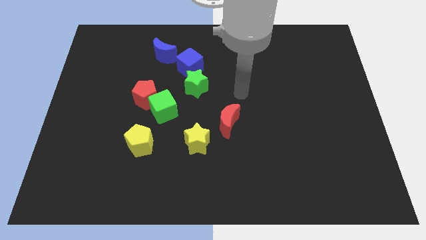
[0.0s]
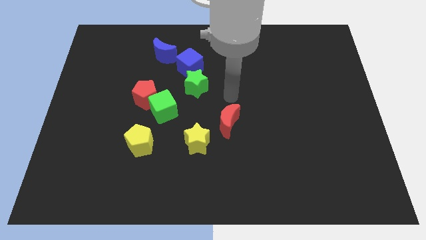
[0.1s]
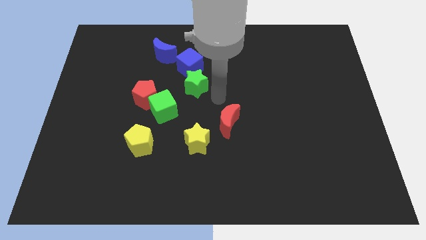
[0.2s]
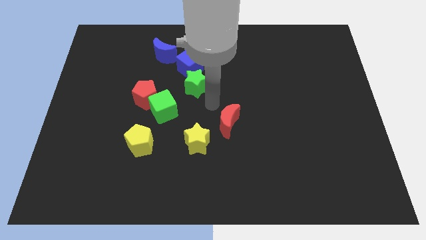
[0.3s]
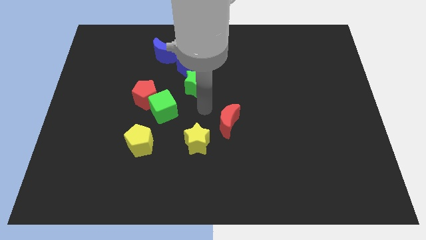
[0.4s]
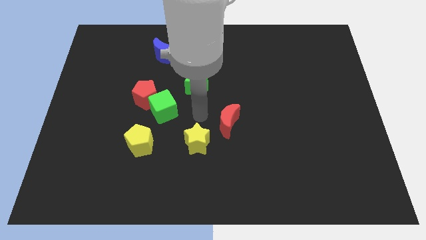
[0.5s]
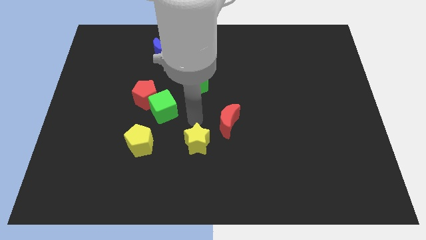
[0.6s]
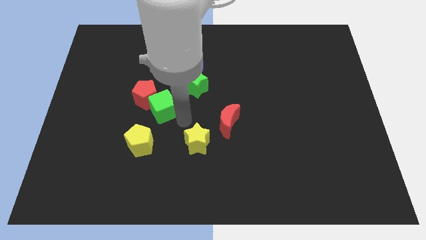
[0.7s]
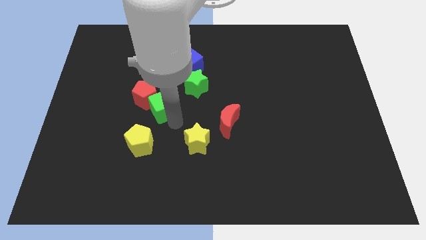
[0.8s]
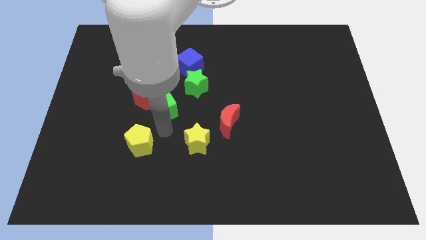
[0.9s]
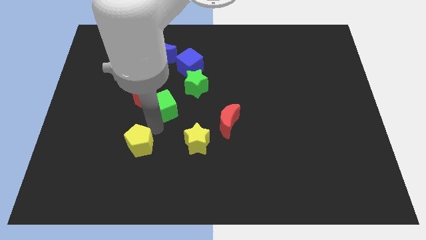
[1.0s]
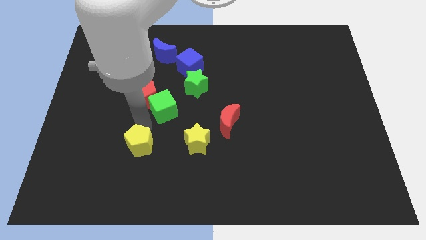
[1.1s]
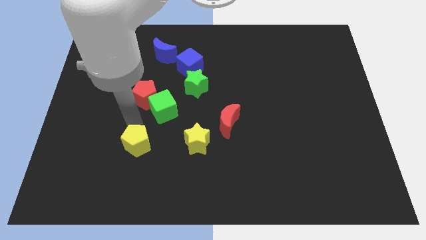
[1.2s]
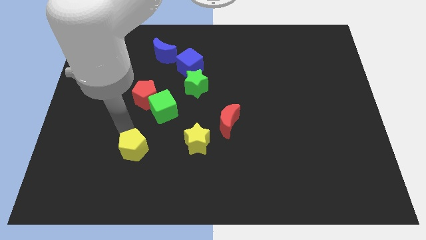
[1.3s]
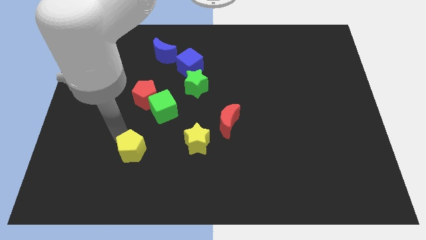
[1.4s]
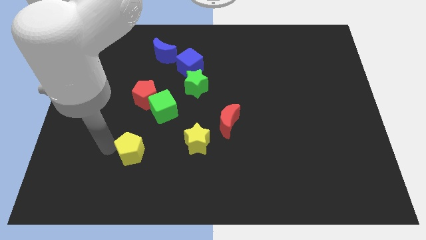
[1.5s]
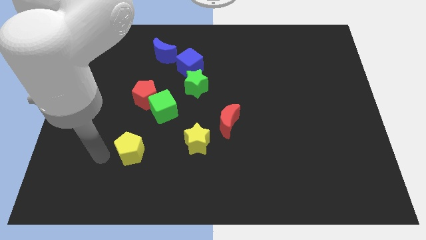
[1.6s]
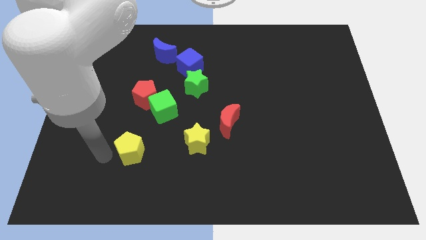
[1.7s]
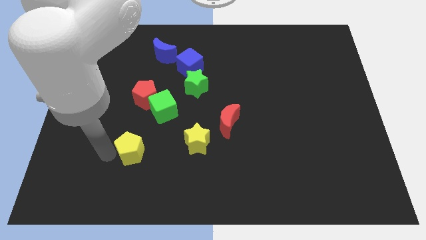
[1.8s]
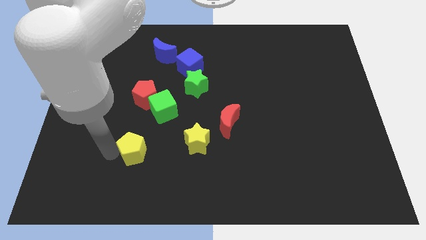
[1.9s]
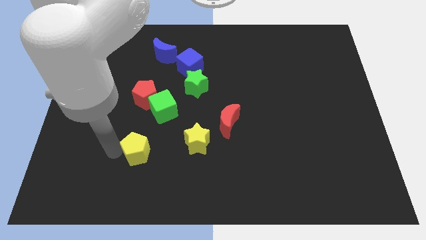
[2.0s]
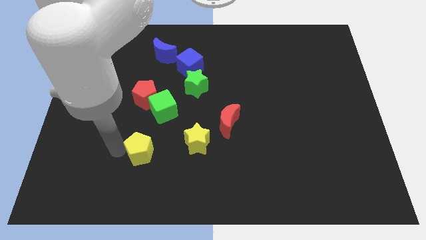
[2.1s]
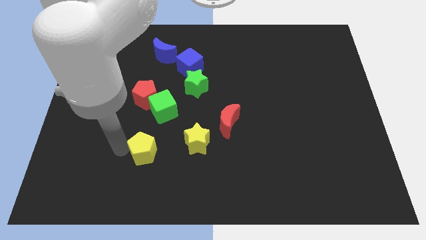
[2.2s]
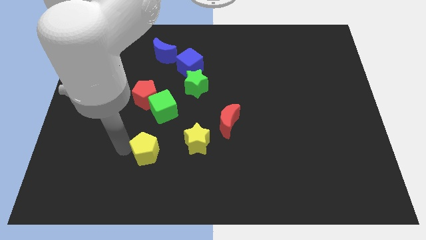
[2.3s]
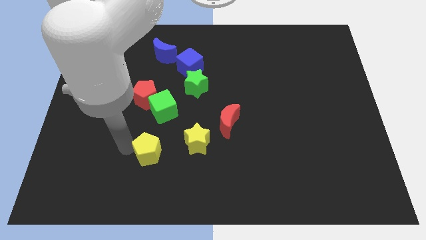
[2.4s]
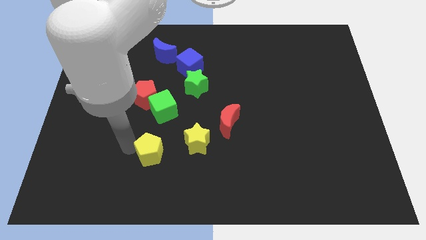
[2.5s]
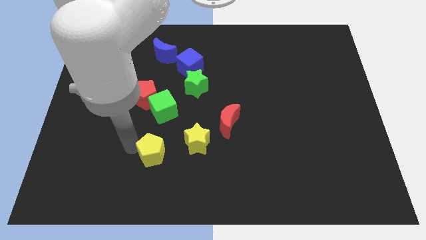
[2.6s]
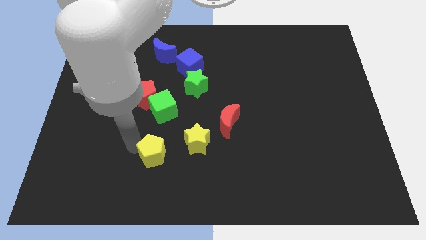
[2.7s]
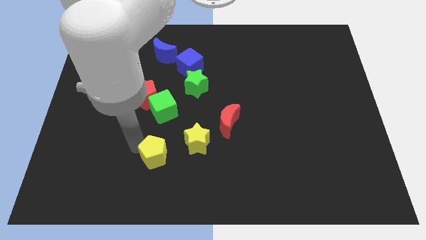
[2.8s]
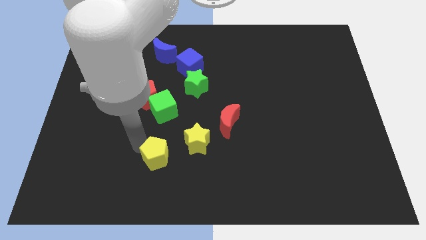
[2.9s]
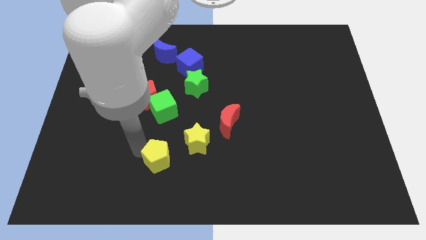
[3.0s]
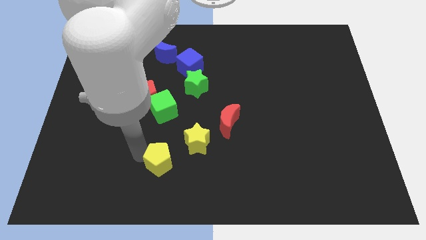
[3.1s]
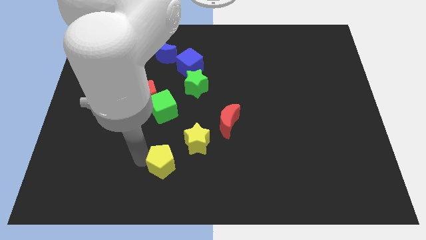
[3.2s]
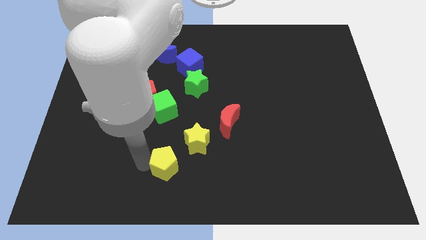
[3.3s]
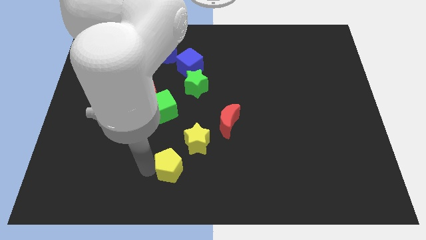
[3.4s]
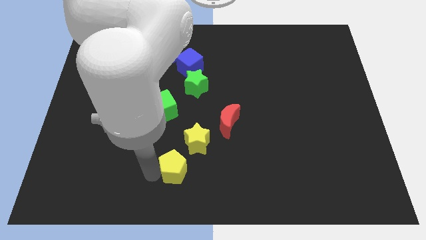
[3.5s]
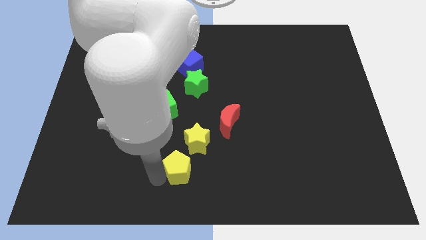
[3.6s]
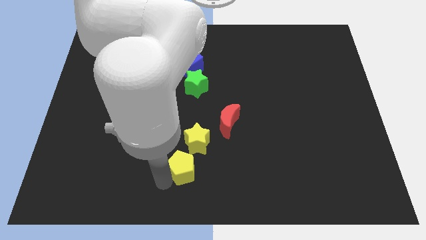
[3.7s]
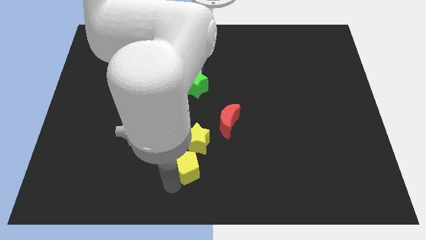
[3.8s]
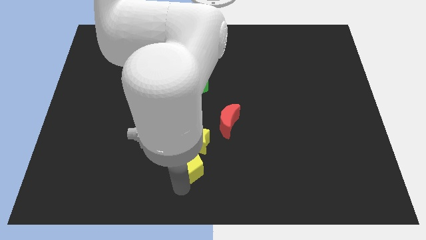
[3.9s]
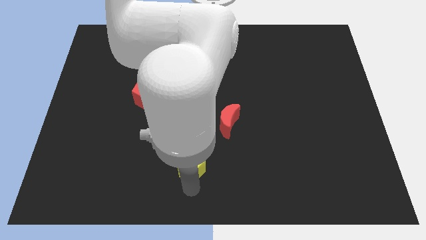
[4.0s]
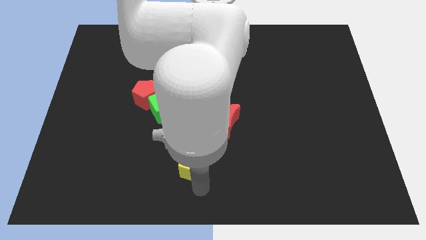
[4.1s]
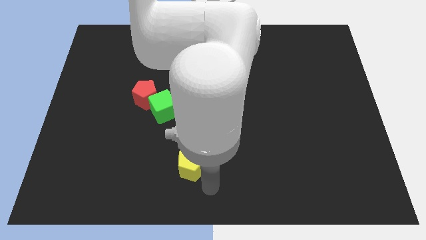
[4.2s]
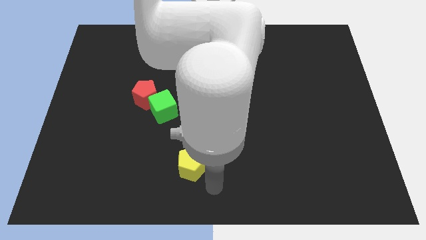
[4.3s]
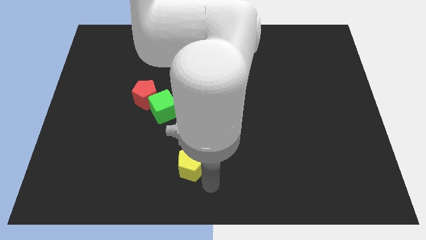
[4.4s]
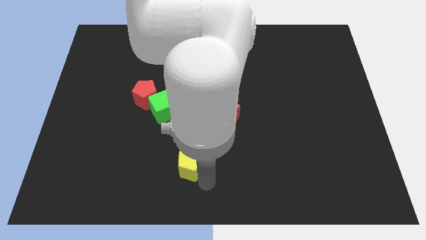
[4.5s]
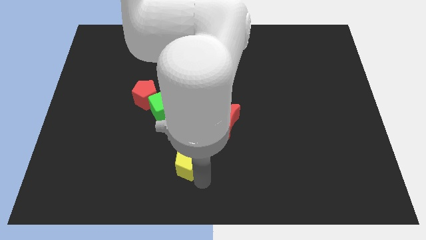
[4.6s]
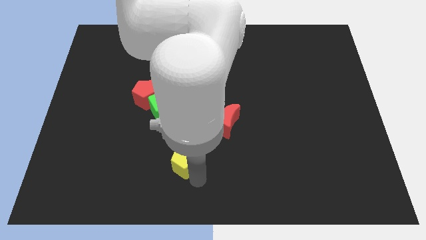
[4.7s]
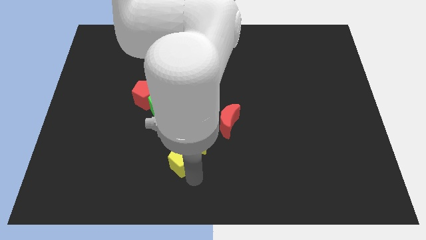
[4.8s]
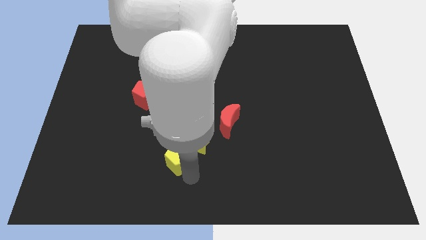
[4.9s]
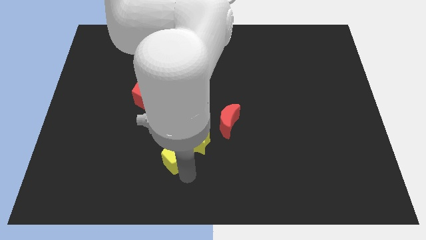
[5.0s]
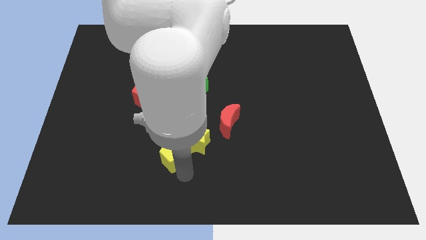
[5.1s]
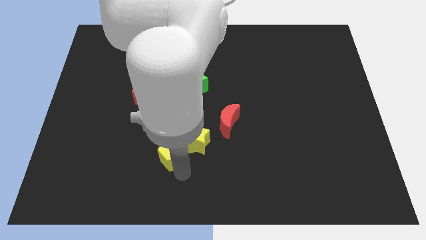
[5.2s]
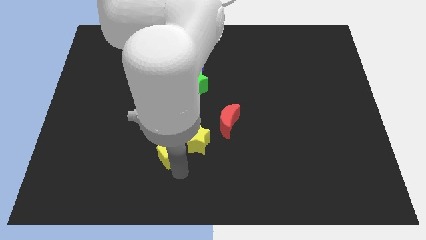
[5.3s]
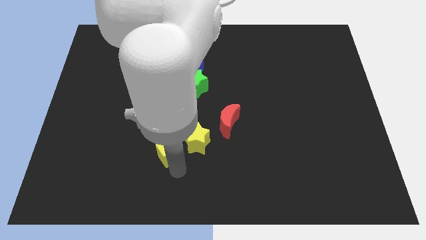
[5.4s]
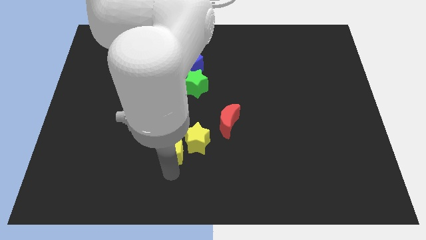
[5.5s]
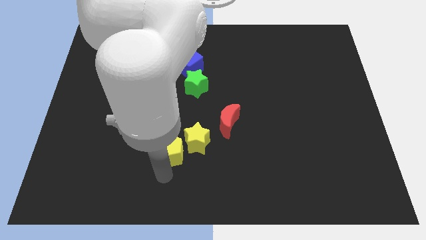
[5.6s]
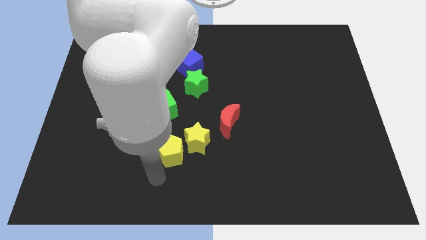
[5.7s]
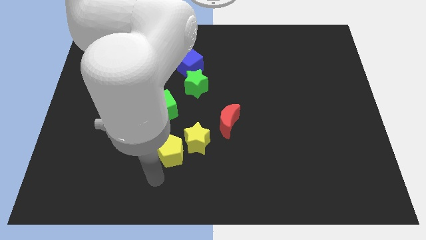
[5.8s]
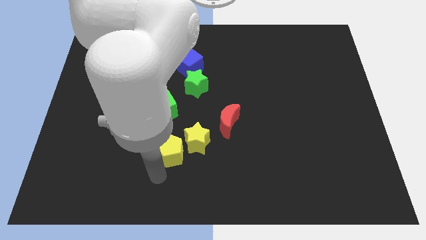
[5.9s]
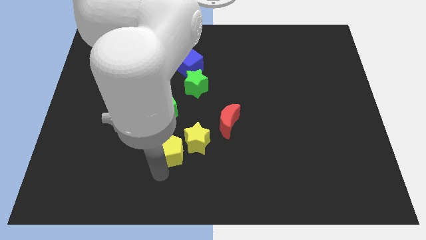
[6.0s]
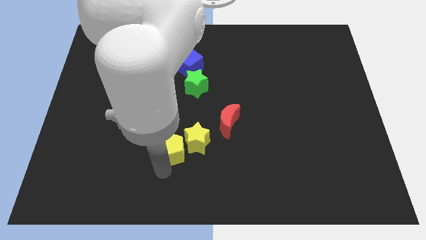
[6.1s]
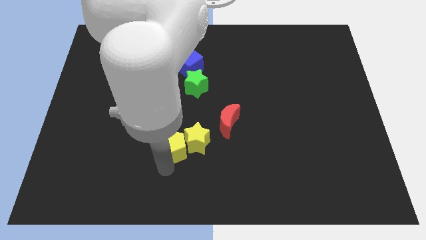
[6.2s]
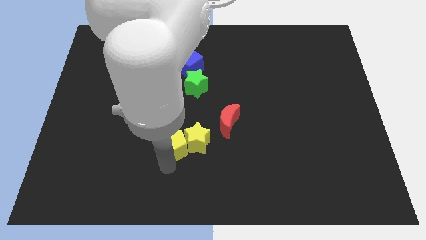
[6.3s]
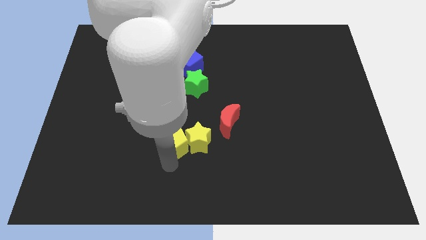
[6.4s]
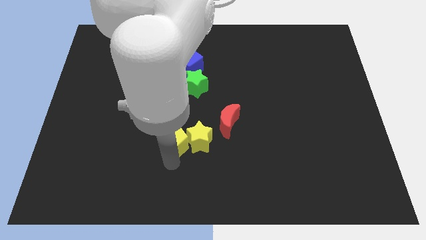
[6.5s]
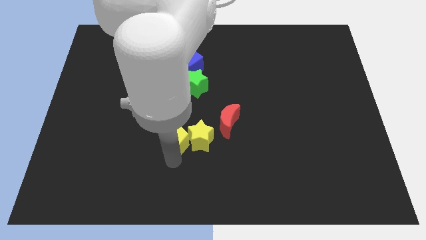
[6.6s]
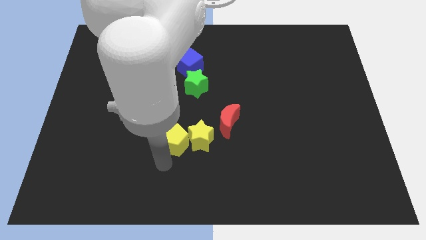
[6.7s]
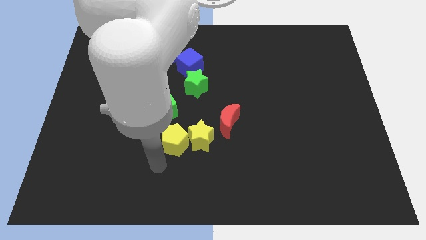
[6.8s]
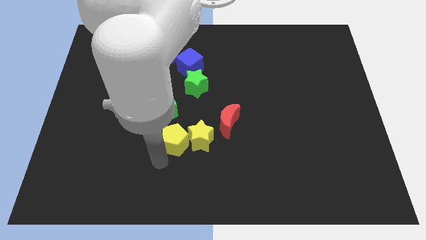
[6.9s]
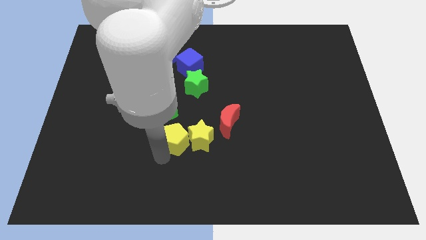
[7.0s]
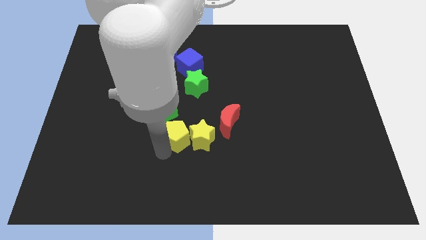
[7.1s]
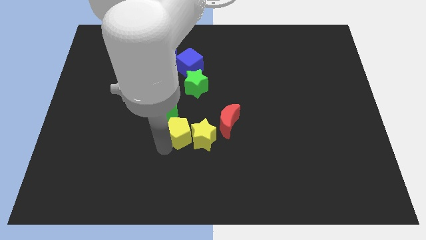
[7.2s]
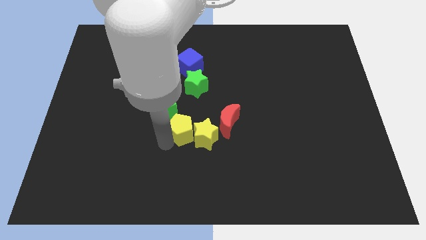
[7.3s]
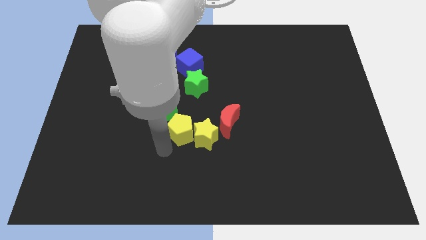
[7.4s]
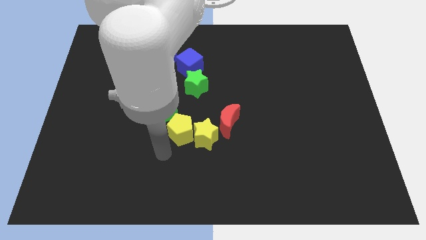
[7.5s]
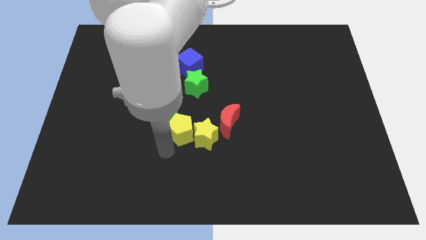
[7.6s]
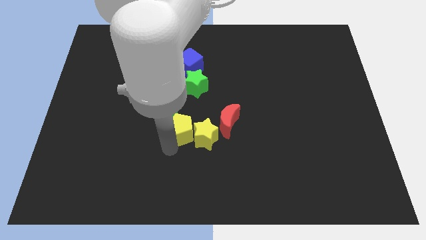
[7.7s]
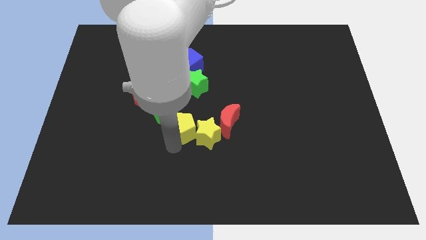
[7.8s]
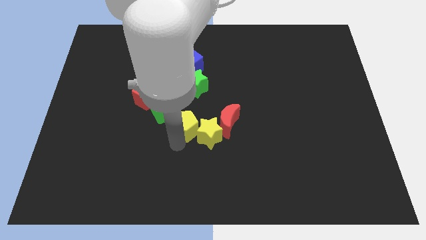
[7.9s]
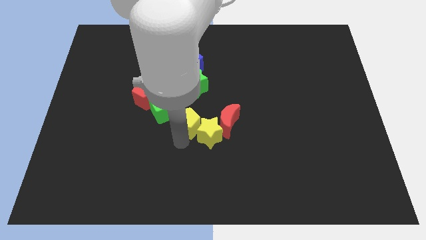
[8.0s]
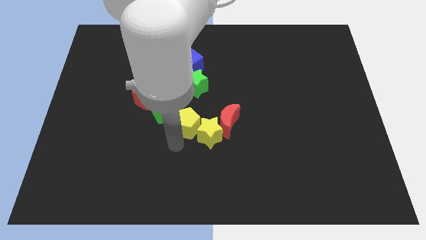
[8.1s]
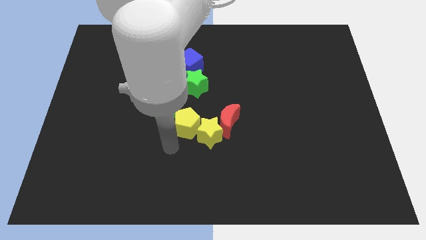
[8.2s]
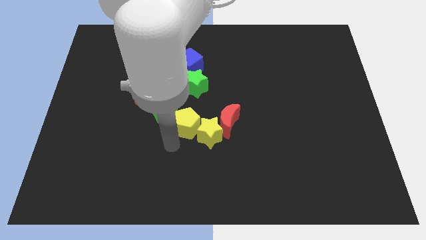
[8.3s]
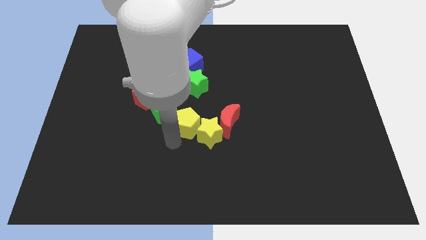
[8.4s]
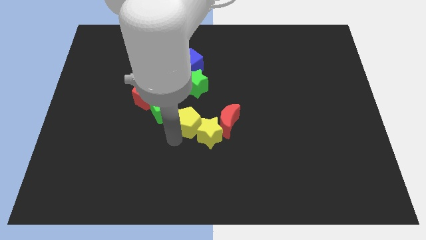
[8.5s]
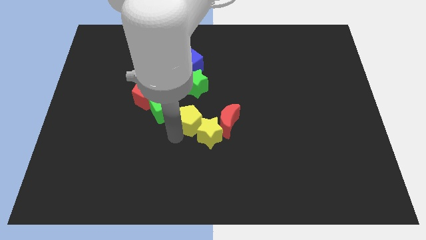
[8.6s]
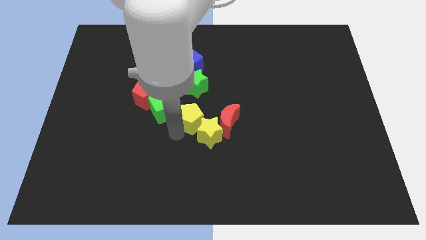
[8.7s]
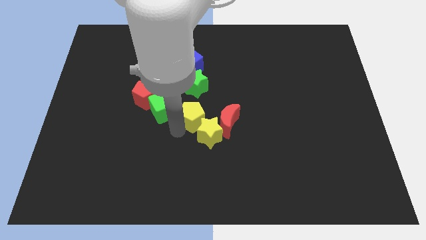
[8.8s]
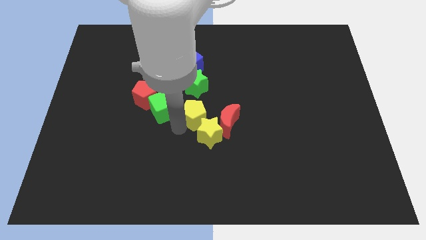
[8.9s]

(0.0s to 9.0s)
slide the yellow pentagon to the top left side of the red moon
